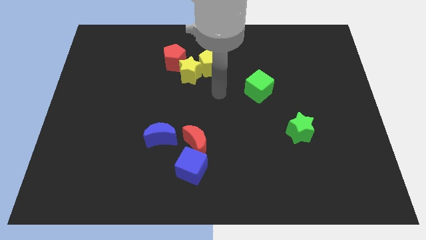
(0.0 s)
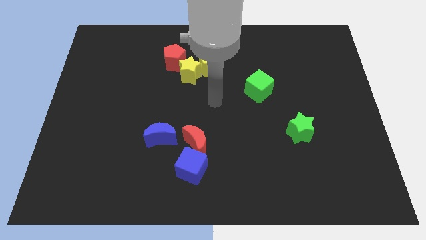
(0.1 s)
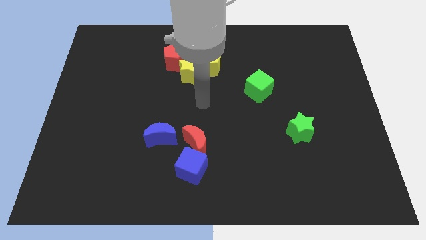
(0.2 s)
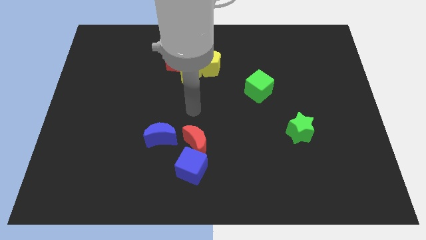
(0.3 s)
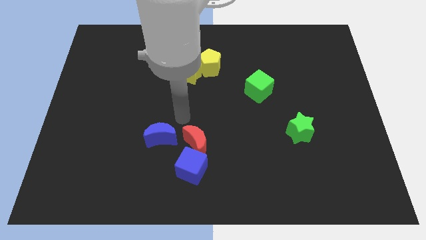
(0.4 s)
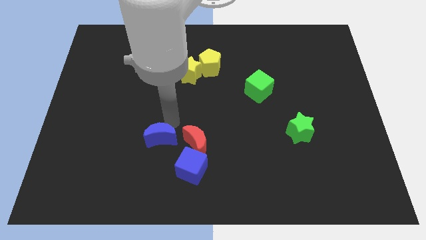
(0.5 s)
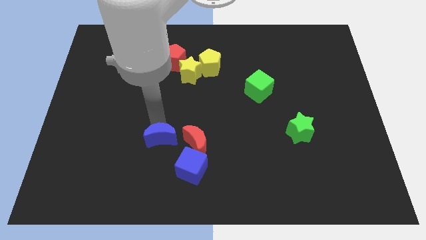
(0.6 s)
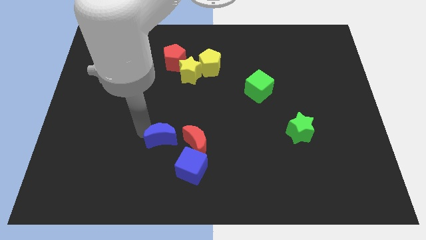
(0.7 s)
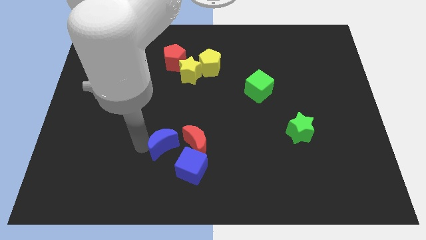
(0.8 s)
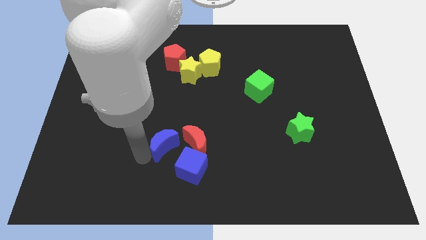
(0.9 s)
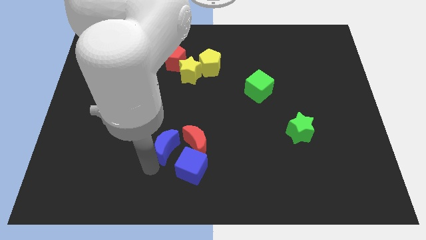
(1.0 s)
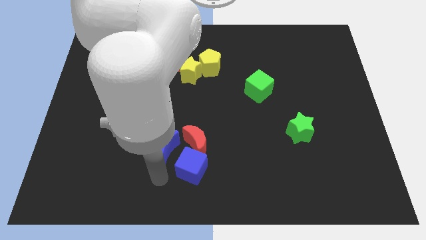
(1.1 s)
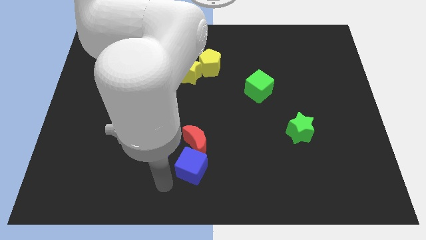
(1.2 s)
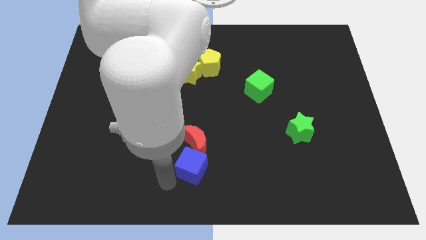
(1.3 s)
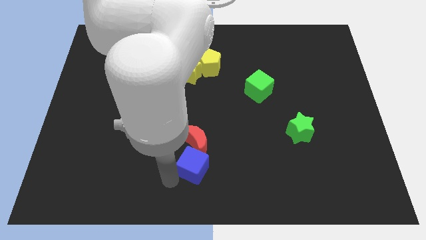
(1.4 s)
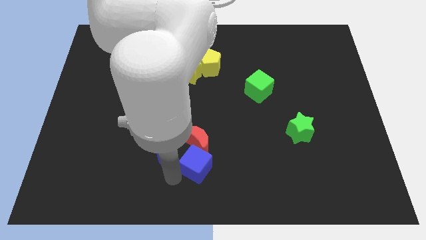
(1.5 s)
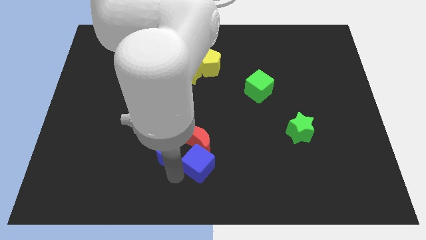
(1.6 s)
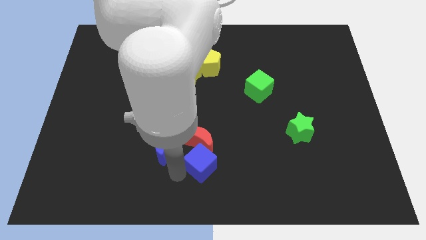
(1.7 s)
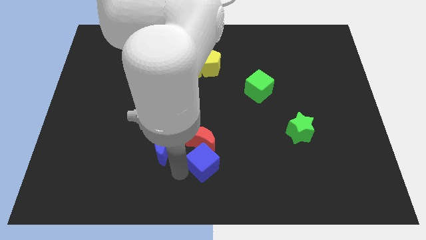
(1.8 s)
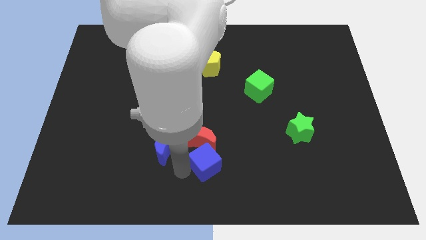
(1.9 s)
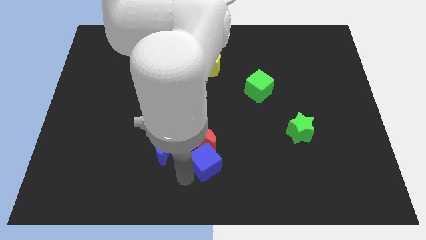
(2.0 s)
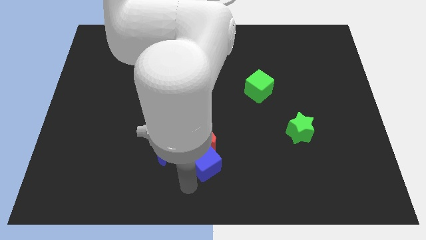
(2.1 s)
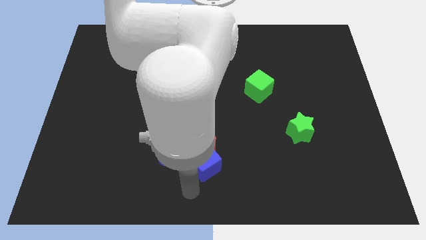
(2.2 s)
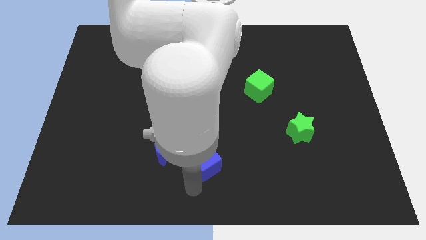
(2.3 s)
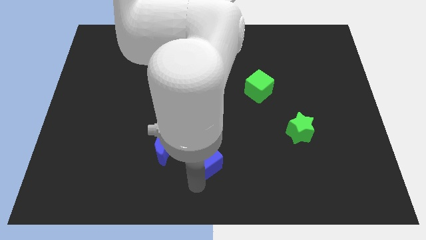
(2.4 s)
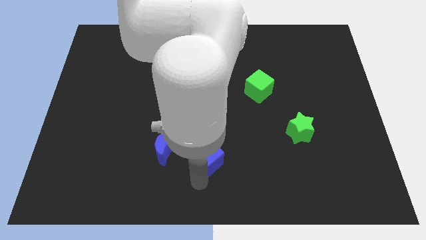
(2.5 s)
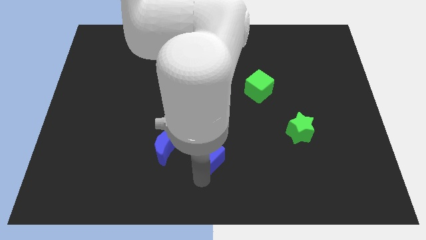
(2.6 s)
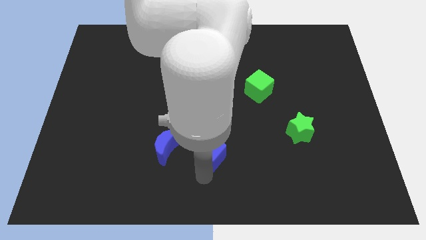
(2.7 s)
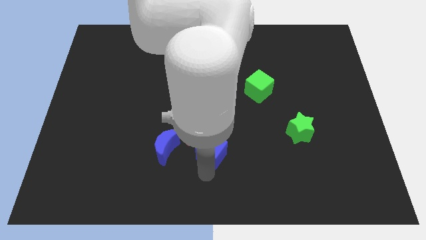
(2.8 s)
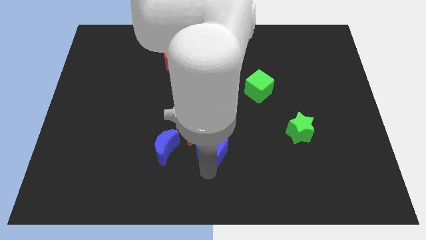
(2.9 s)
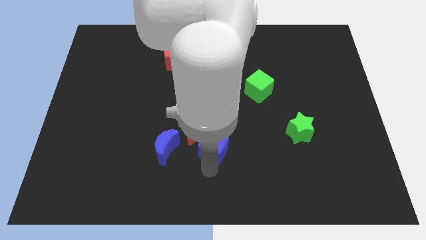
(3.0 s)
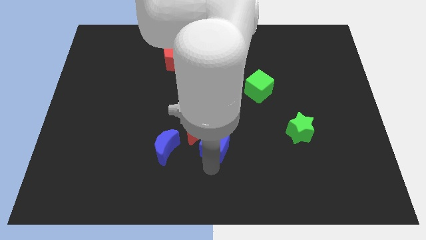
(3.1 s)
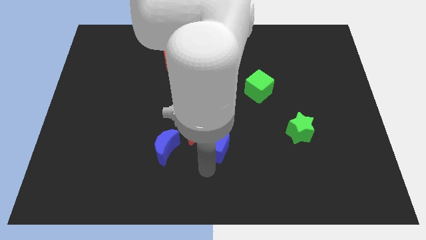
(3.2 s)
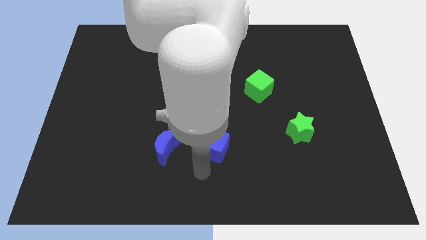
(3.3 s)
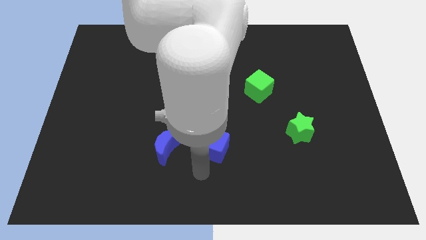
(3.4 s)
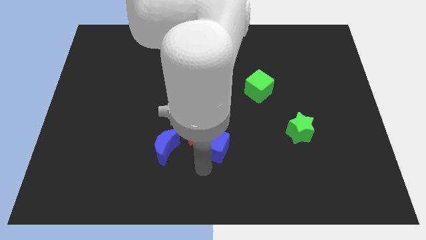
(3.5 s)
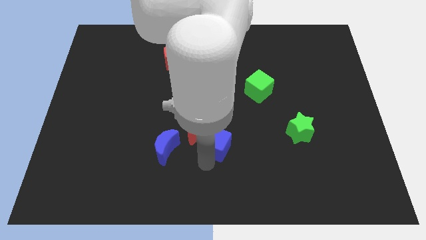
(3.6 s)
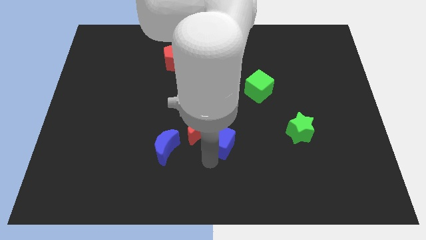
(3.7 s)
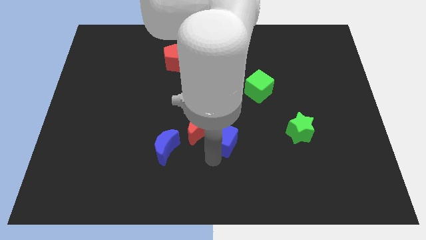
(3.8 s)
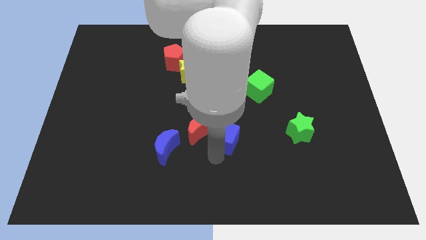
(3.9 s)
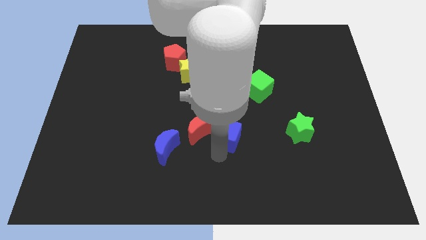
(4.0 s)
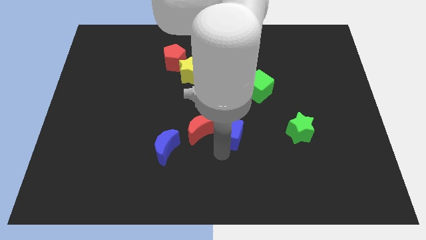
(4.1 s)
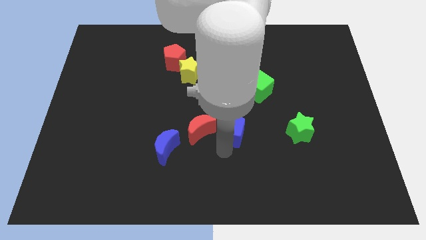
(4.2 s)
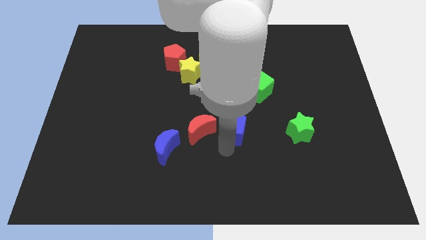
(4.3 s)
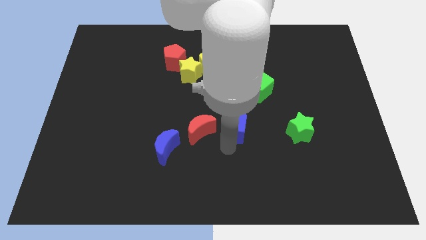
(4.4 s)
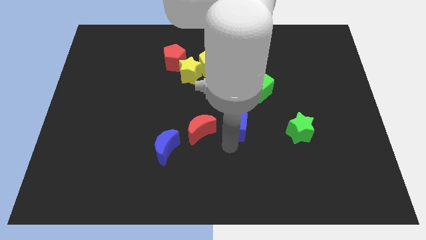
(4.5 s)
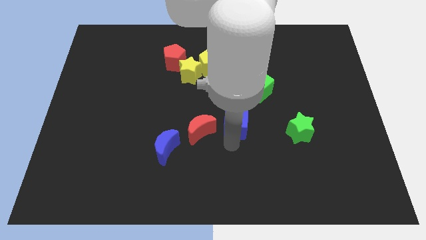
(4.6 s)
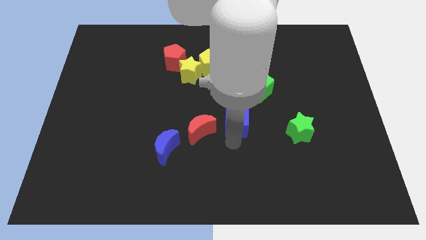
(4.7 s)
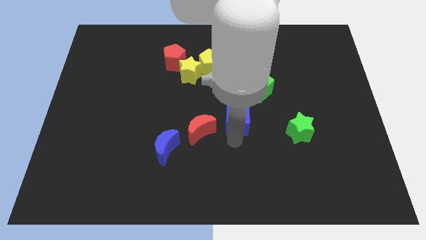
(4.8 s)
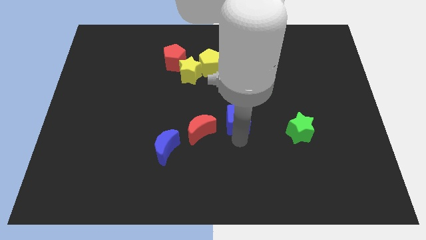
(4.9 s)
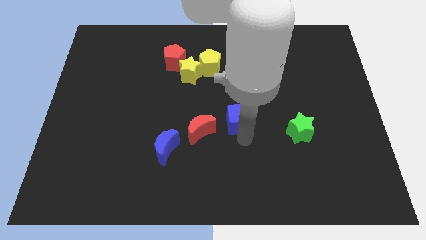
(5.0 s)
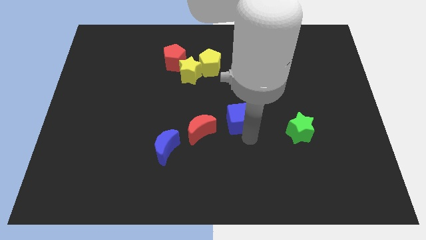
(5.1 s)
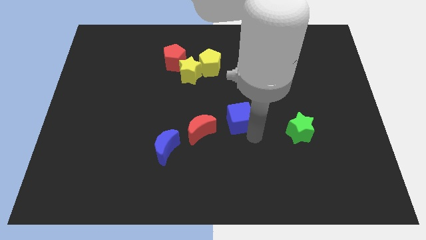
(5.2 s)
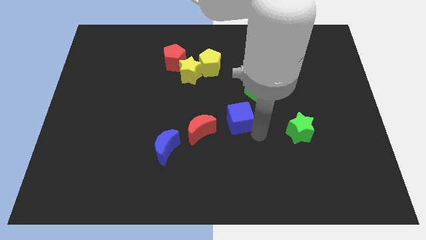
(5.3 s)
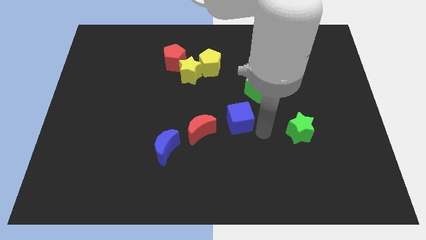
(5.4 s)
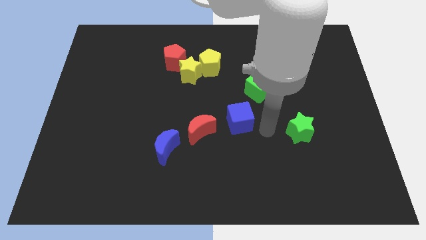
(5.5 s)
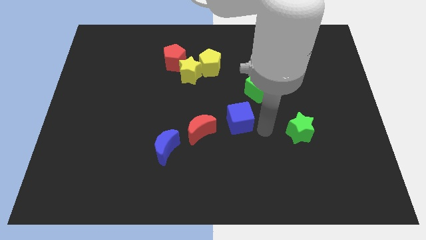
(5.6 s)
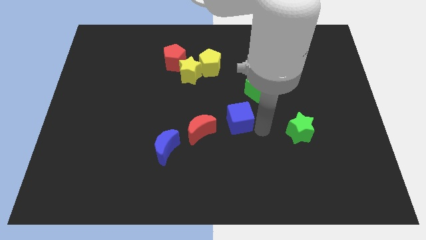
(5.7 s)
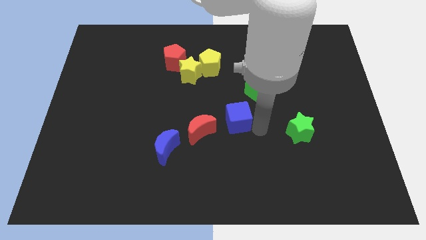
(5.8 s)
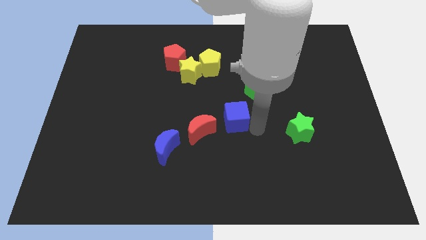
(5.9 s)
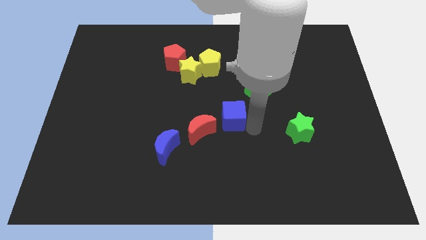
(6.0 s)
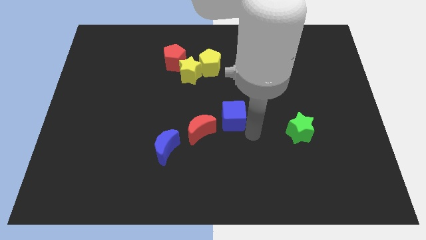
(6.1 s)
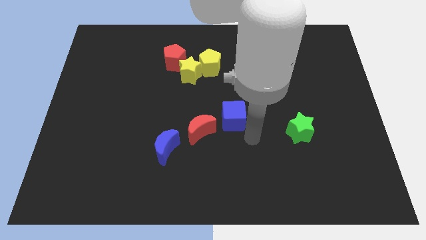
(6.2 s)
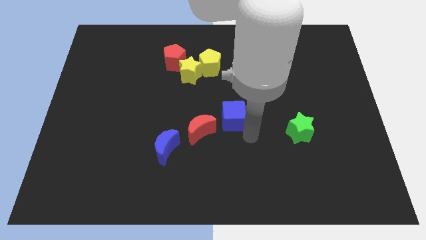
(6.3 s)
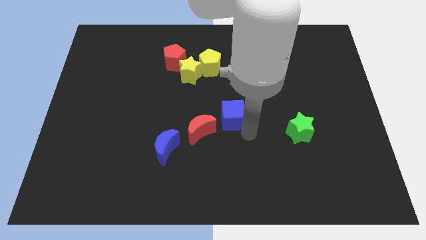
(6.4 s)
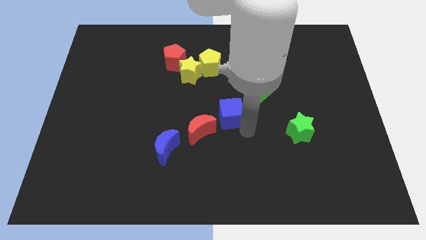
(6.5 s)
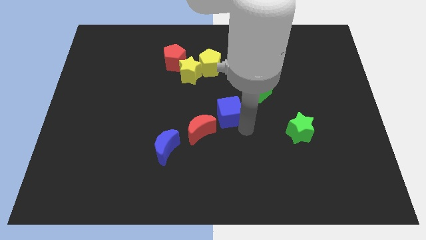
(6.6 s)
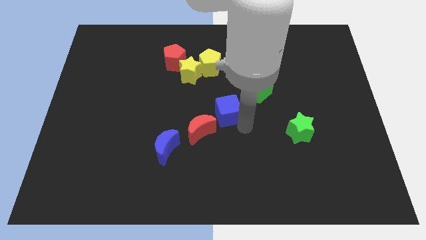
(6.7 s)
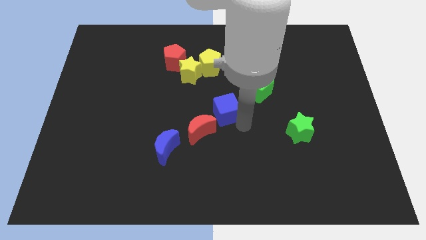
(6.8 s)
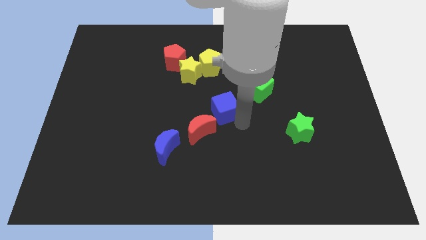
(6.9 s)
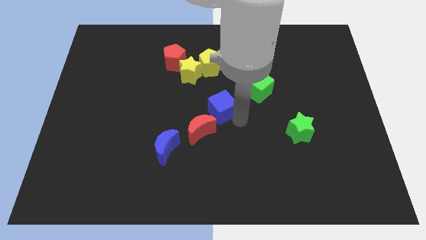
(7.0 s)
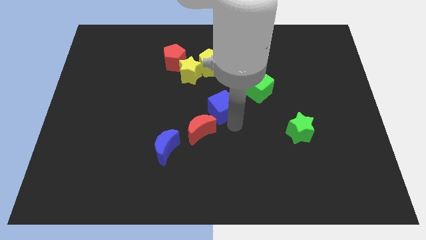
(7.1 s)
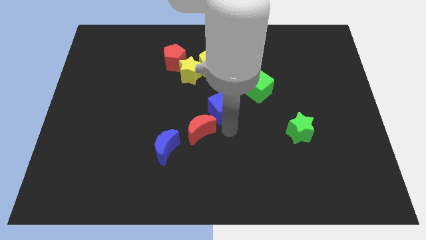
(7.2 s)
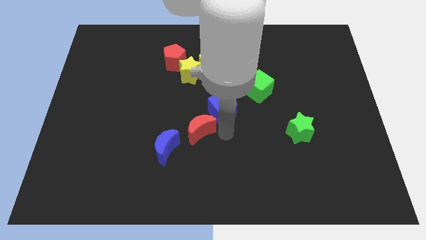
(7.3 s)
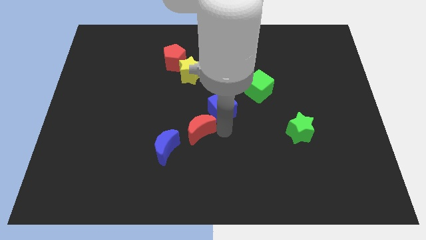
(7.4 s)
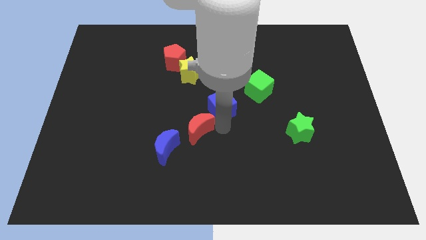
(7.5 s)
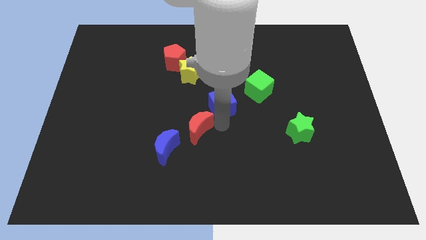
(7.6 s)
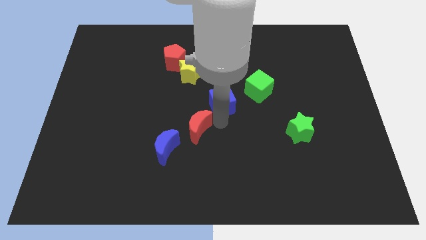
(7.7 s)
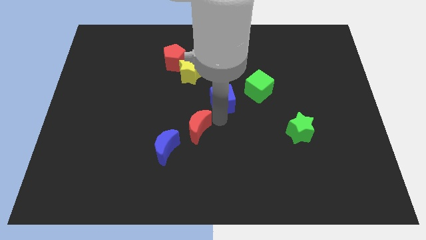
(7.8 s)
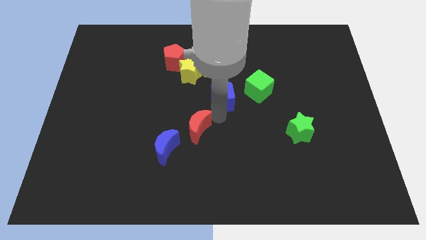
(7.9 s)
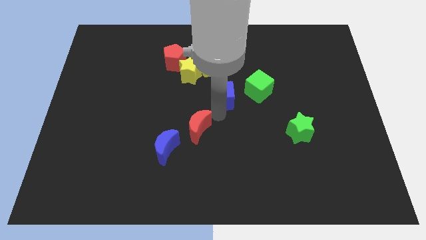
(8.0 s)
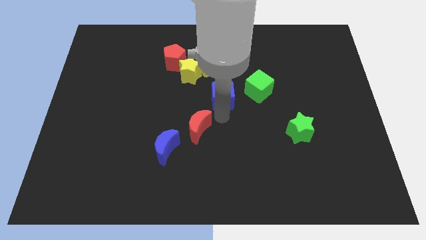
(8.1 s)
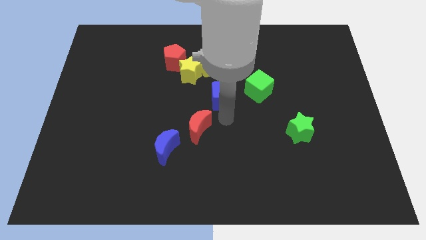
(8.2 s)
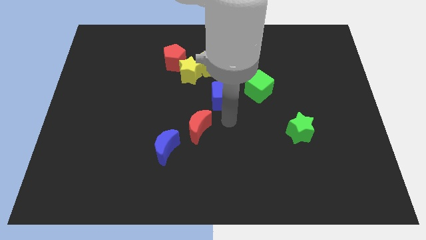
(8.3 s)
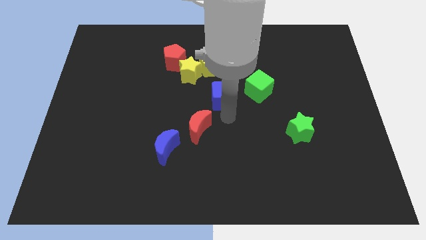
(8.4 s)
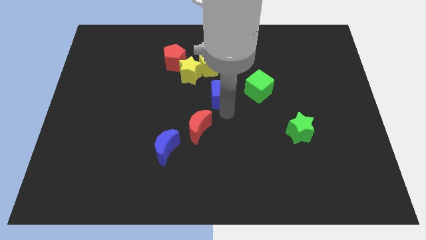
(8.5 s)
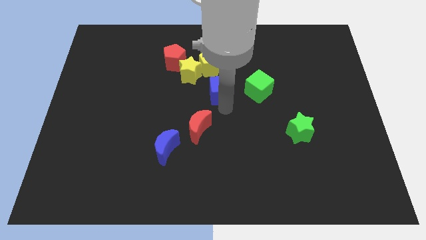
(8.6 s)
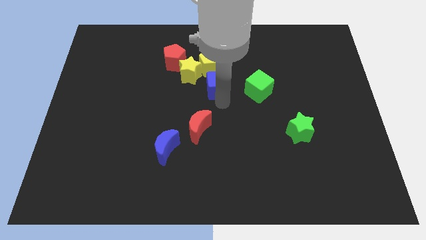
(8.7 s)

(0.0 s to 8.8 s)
slide the blue cube upwards
